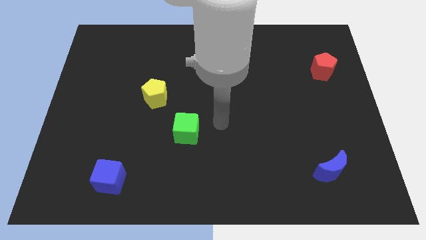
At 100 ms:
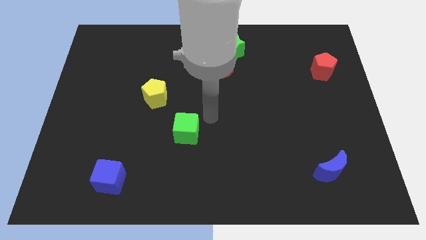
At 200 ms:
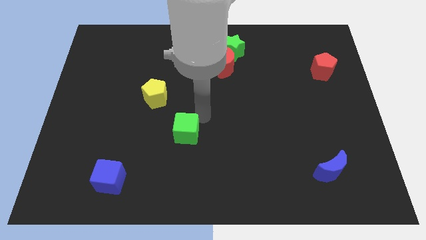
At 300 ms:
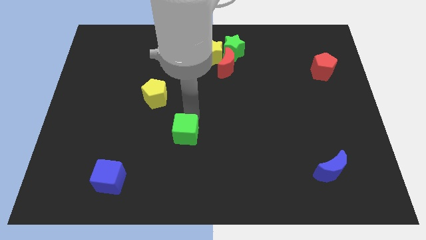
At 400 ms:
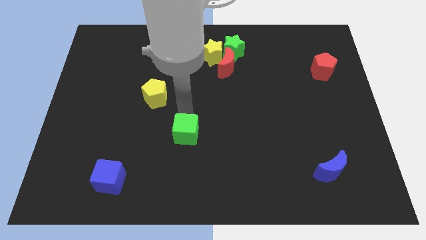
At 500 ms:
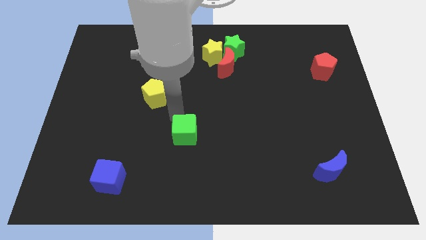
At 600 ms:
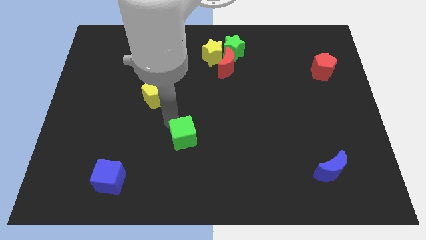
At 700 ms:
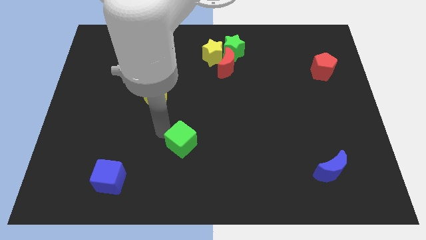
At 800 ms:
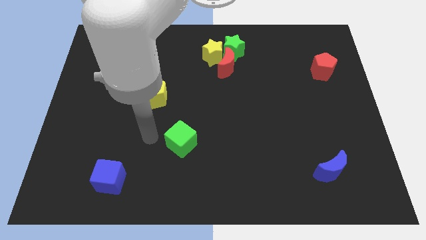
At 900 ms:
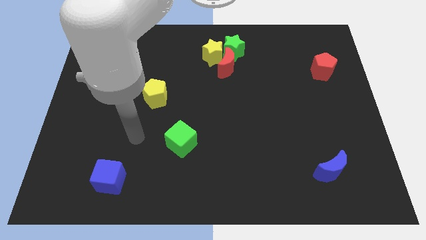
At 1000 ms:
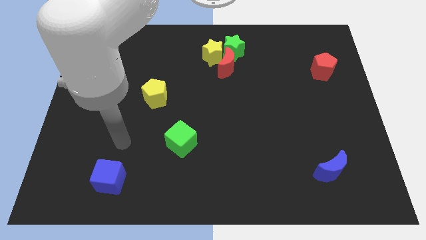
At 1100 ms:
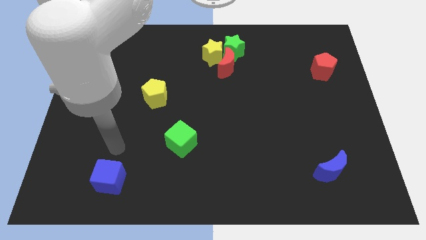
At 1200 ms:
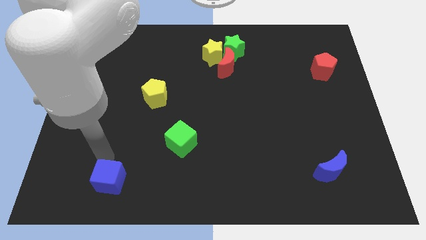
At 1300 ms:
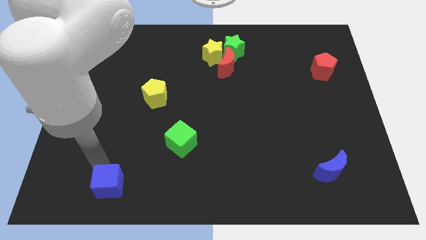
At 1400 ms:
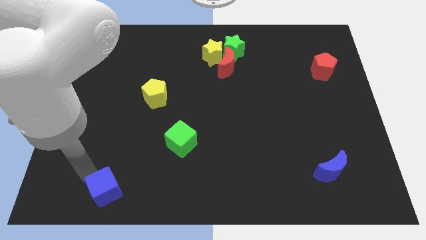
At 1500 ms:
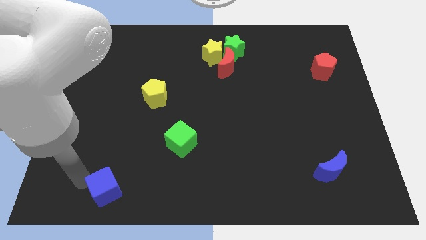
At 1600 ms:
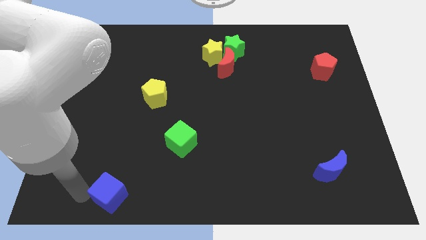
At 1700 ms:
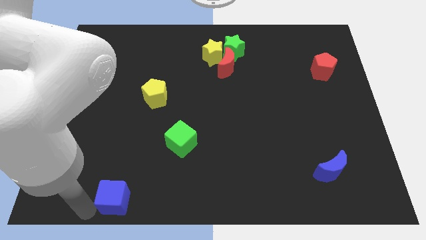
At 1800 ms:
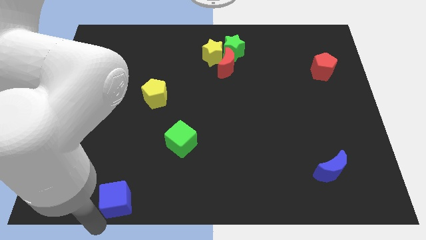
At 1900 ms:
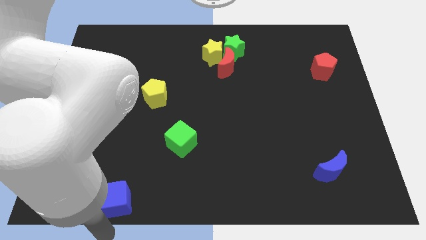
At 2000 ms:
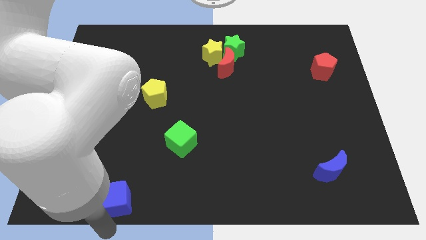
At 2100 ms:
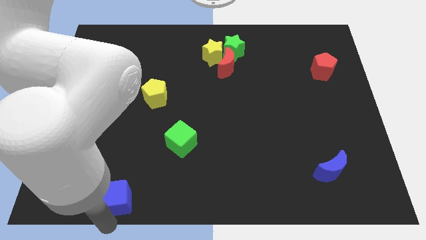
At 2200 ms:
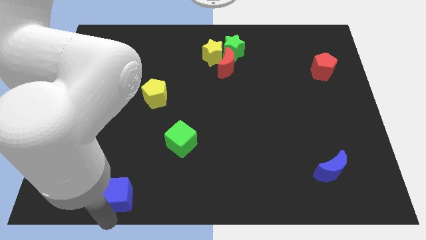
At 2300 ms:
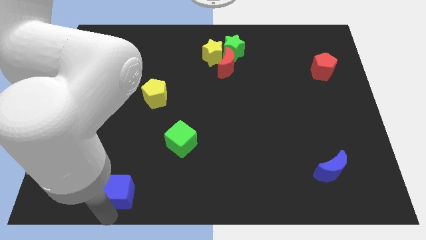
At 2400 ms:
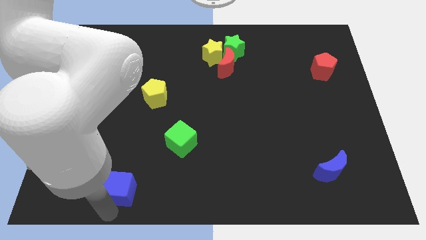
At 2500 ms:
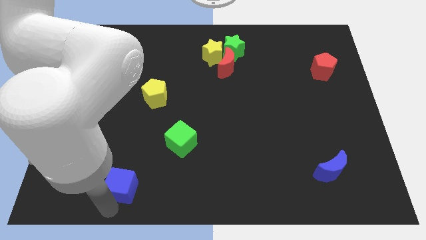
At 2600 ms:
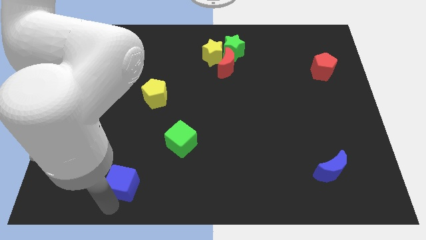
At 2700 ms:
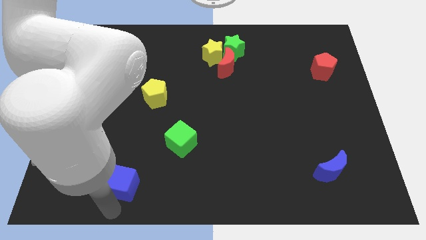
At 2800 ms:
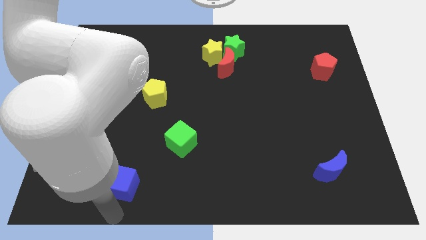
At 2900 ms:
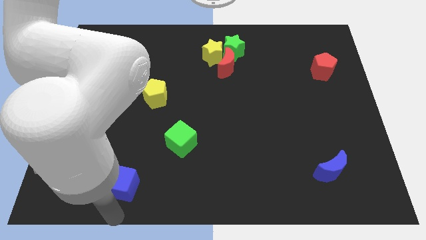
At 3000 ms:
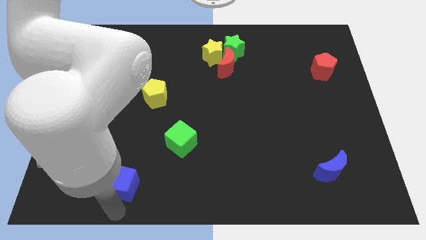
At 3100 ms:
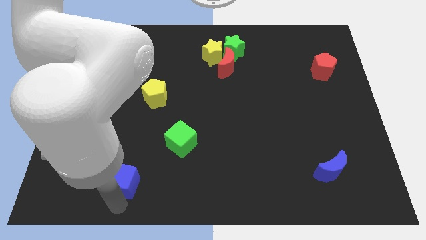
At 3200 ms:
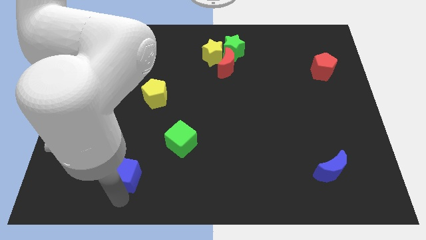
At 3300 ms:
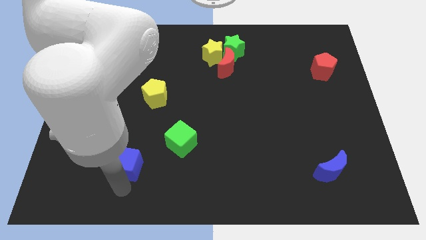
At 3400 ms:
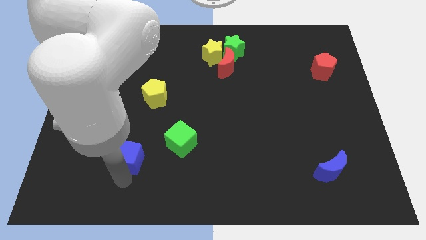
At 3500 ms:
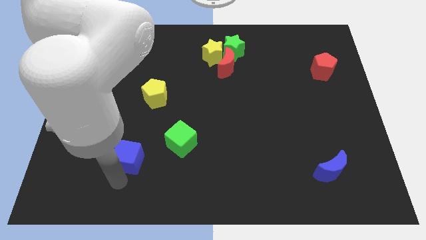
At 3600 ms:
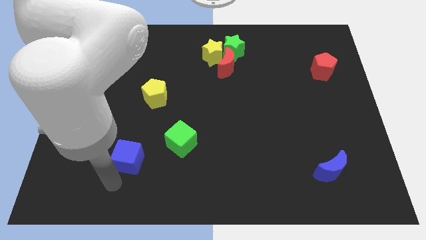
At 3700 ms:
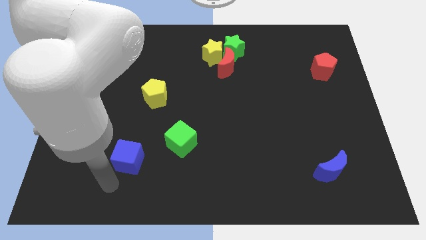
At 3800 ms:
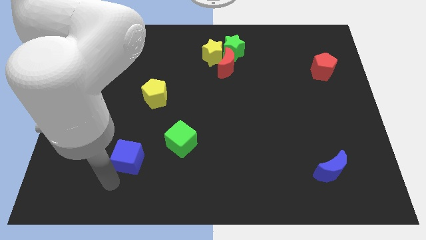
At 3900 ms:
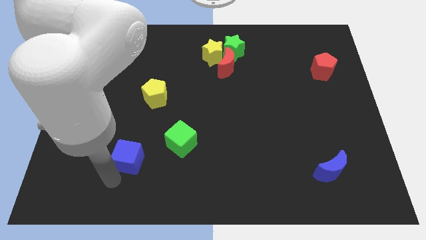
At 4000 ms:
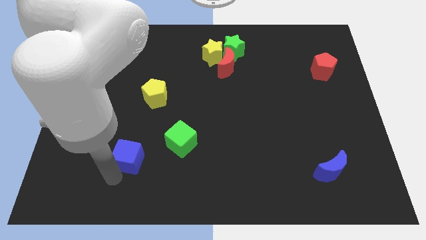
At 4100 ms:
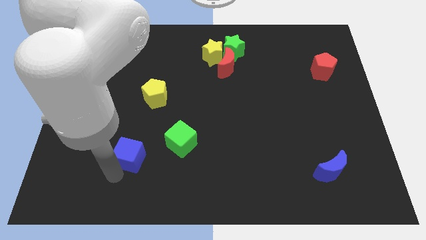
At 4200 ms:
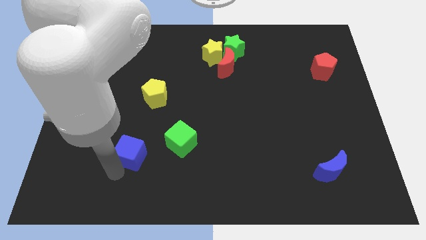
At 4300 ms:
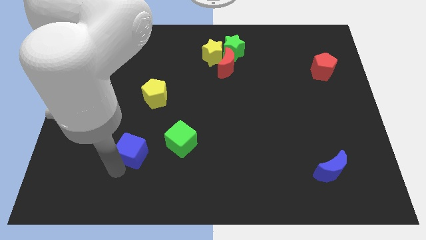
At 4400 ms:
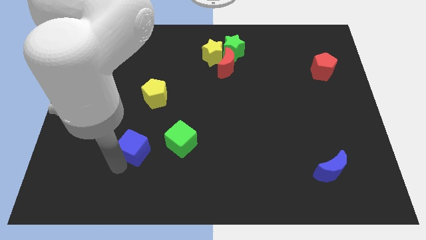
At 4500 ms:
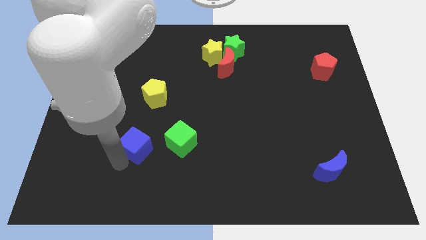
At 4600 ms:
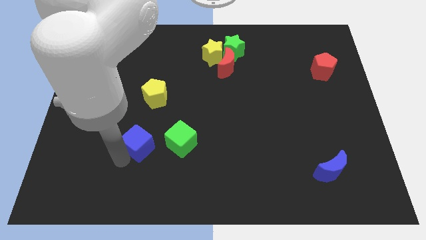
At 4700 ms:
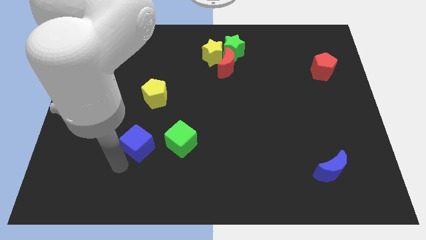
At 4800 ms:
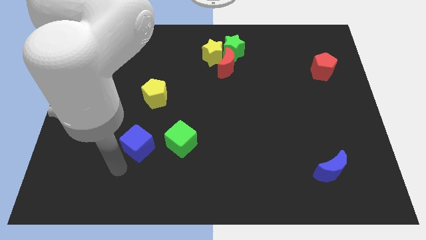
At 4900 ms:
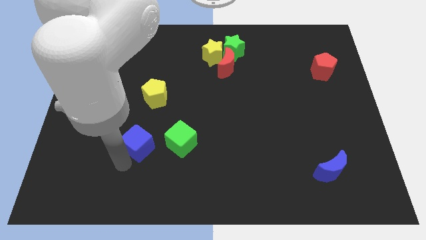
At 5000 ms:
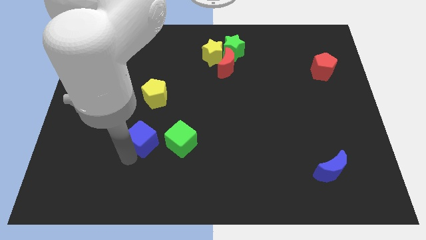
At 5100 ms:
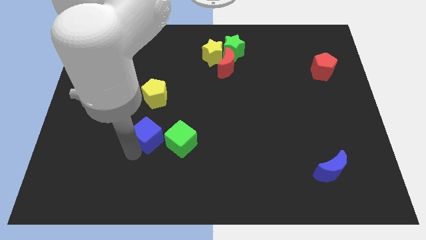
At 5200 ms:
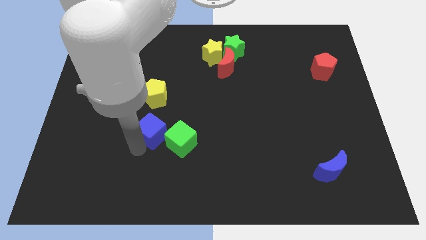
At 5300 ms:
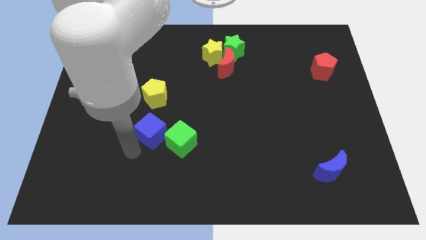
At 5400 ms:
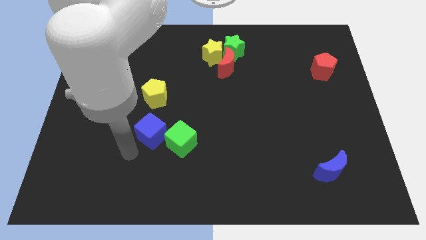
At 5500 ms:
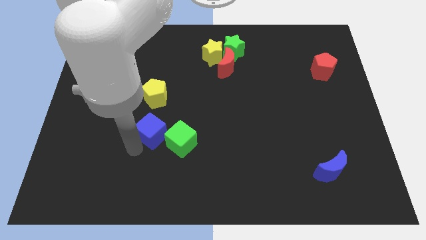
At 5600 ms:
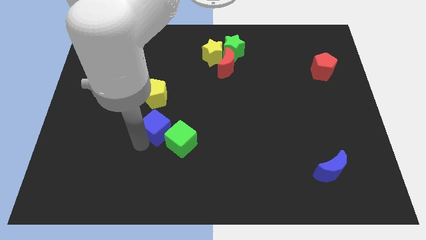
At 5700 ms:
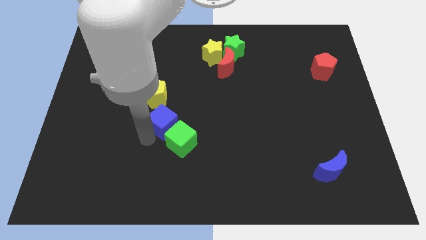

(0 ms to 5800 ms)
push the blue cube to the bottom right of the yellow pentagon

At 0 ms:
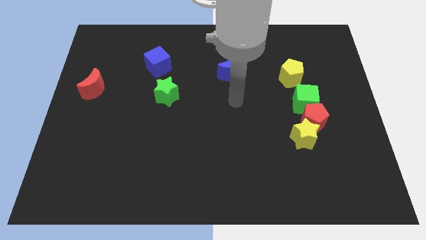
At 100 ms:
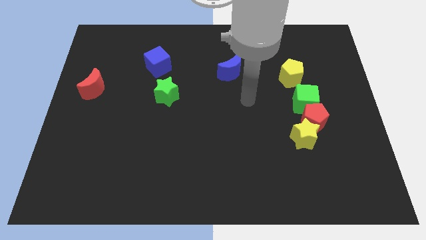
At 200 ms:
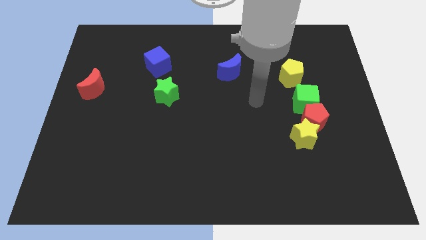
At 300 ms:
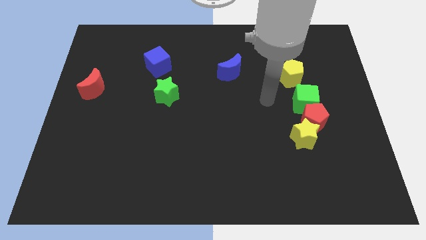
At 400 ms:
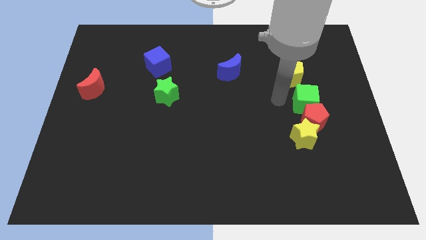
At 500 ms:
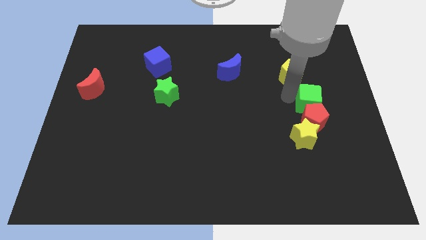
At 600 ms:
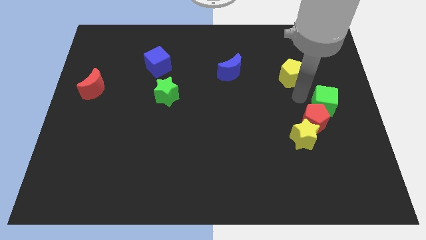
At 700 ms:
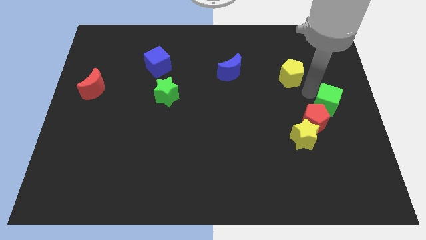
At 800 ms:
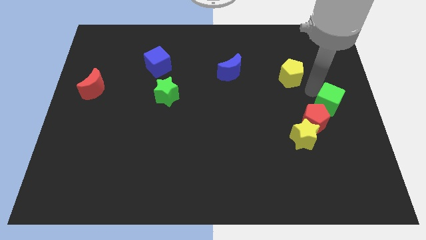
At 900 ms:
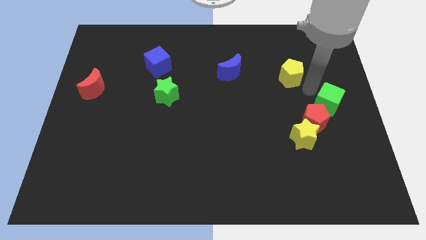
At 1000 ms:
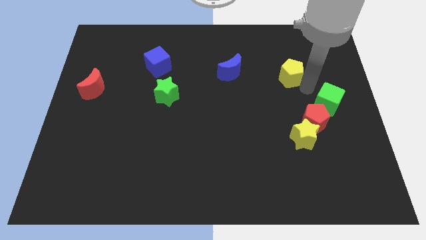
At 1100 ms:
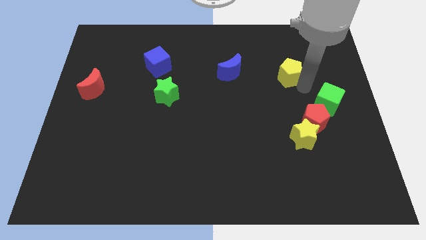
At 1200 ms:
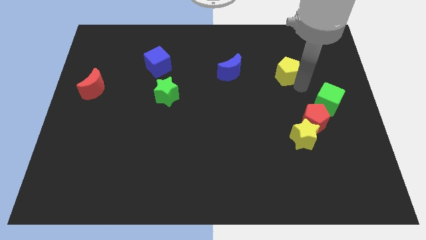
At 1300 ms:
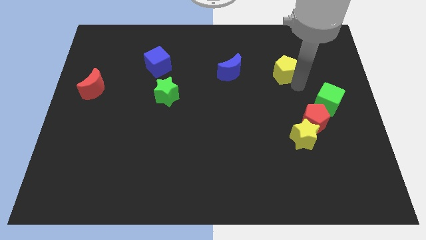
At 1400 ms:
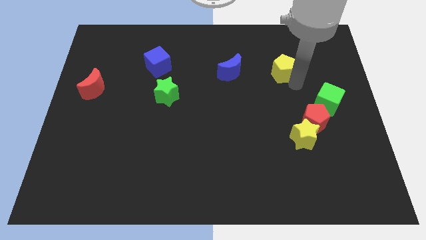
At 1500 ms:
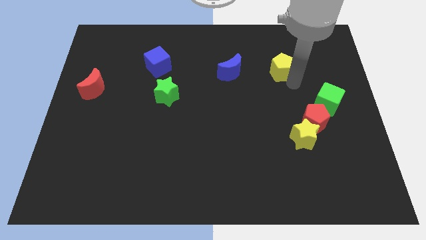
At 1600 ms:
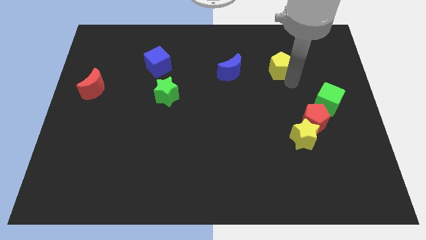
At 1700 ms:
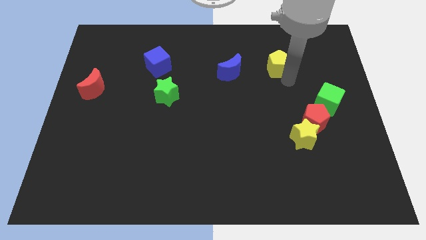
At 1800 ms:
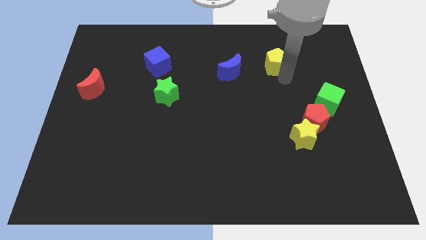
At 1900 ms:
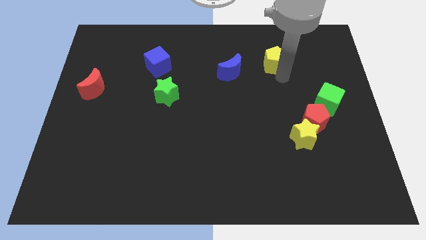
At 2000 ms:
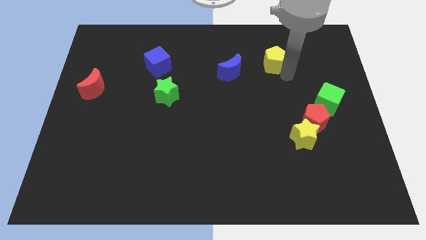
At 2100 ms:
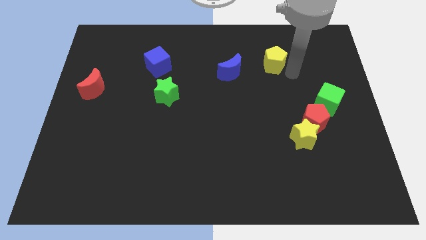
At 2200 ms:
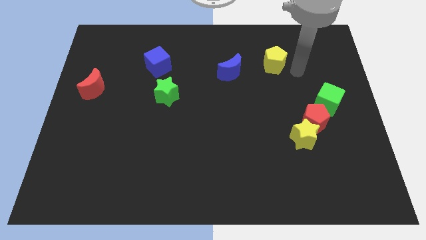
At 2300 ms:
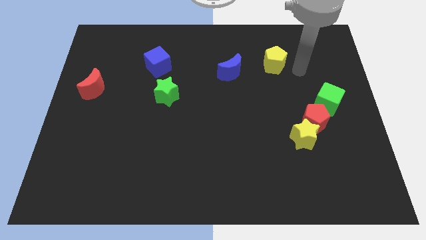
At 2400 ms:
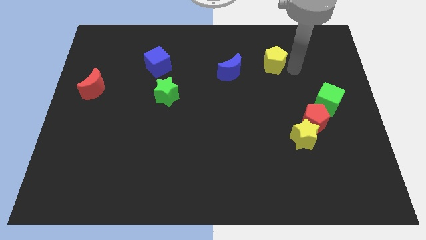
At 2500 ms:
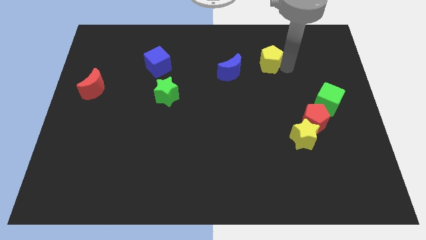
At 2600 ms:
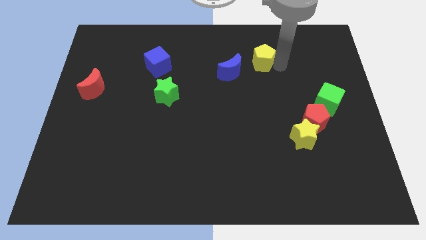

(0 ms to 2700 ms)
slide the yellow pentagon to the top right side of the blue moon
